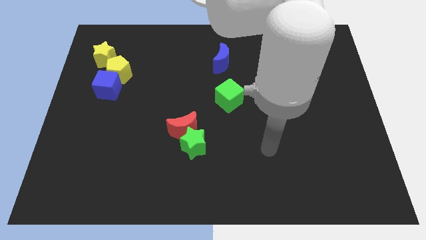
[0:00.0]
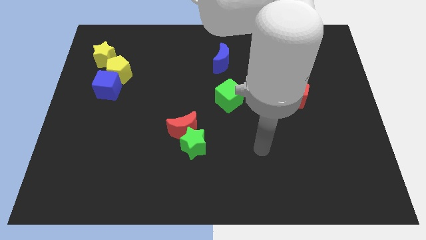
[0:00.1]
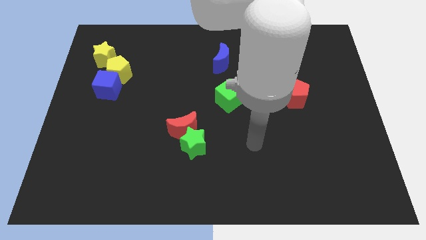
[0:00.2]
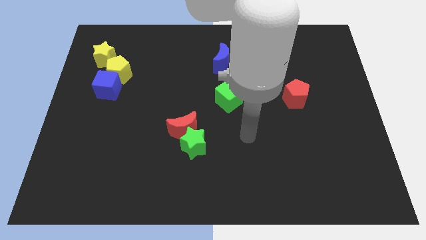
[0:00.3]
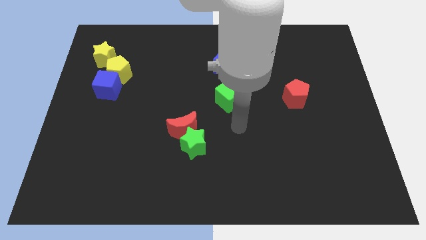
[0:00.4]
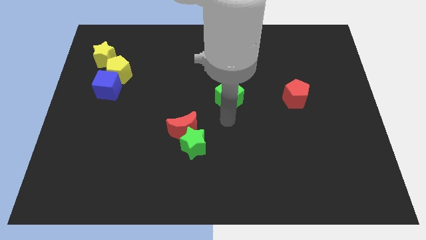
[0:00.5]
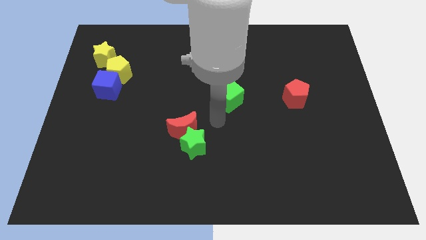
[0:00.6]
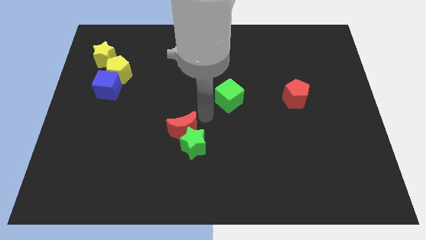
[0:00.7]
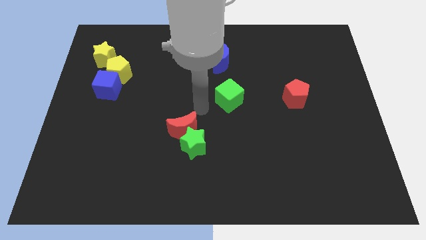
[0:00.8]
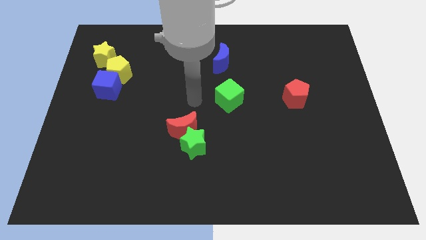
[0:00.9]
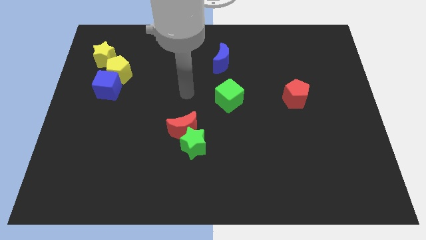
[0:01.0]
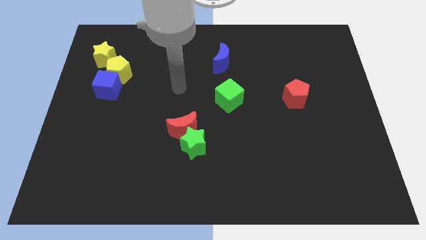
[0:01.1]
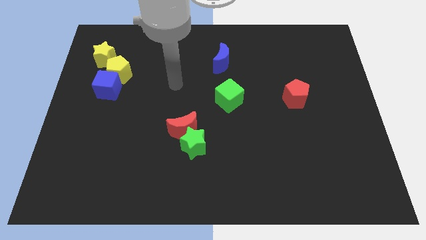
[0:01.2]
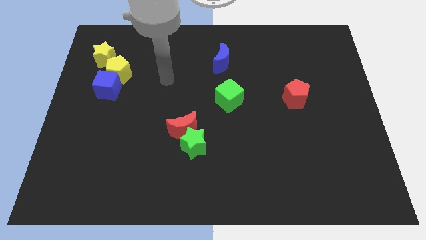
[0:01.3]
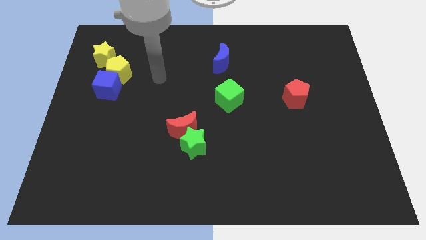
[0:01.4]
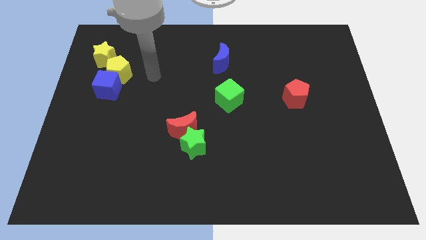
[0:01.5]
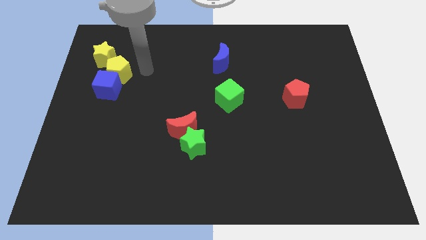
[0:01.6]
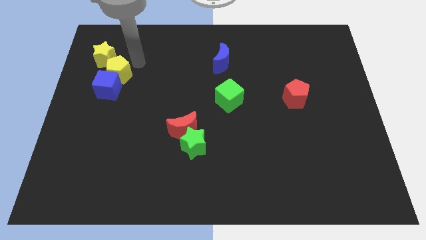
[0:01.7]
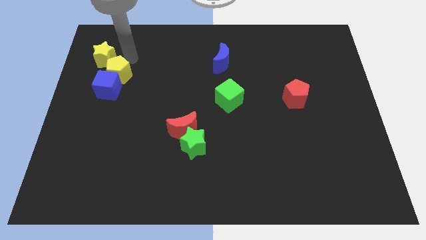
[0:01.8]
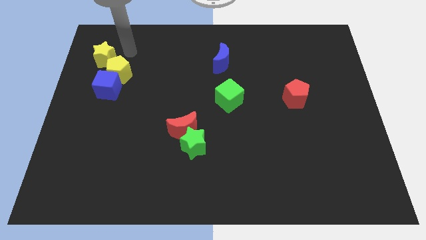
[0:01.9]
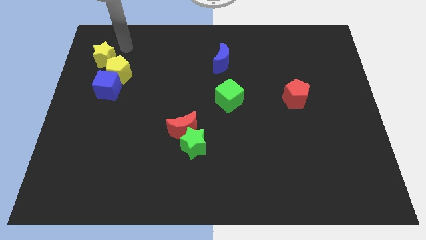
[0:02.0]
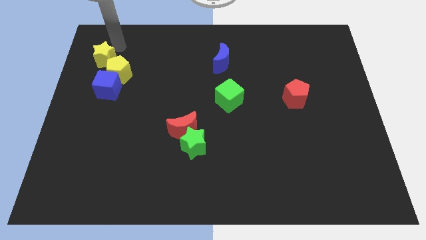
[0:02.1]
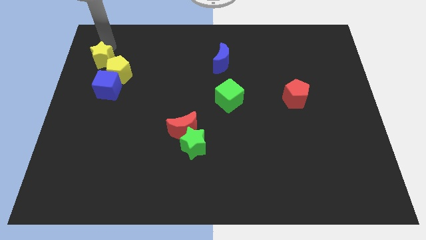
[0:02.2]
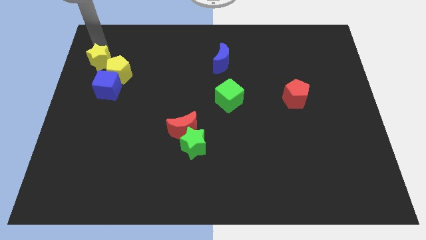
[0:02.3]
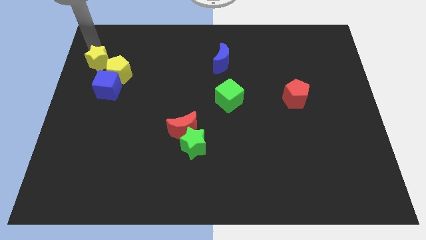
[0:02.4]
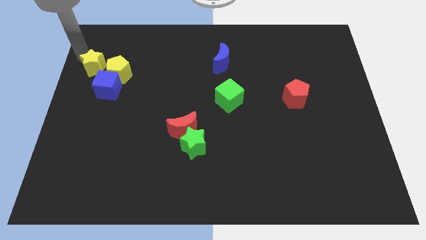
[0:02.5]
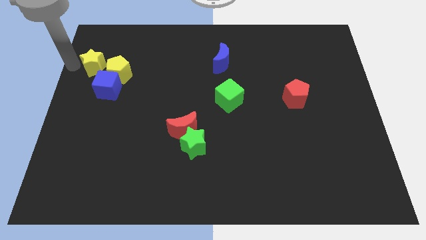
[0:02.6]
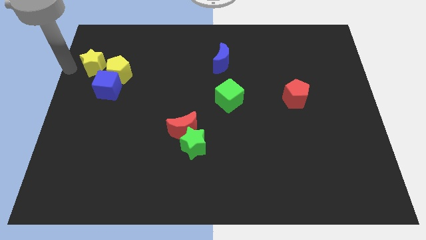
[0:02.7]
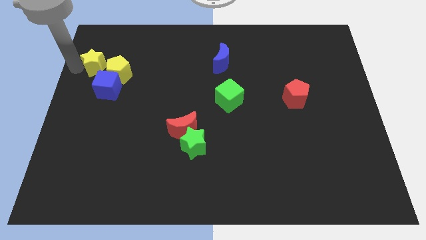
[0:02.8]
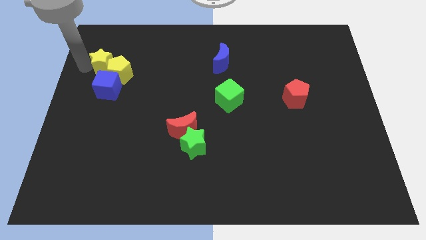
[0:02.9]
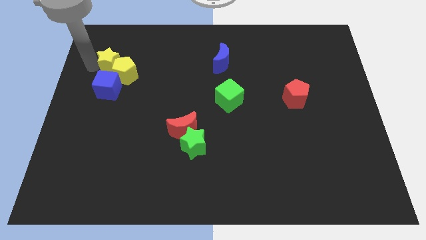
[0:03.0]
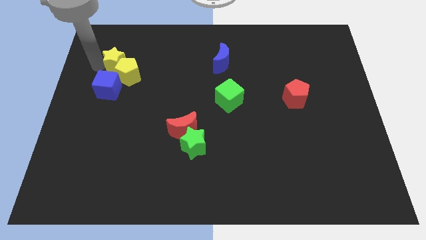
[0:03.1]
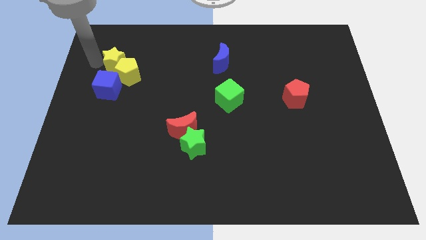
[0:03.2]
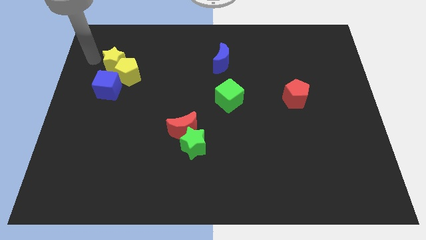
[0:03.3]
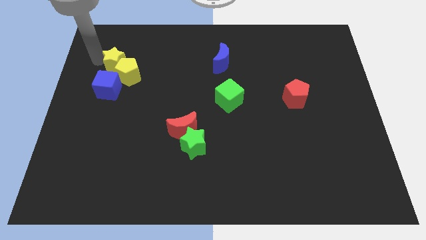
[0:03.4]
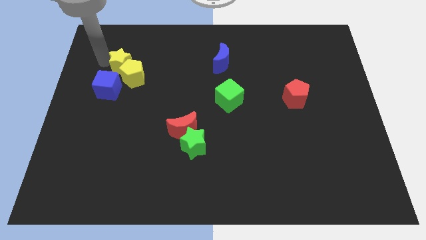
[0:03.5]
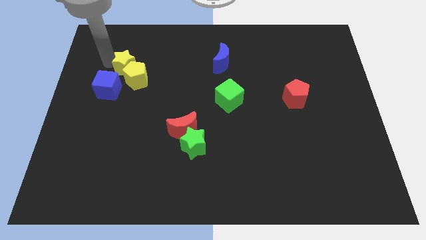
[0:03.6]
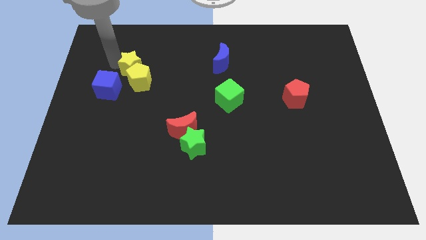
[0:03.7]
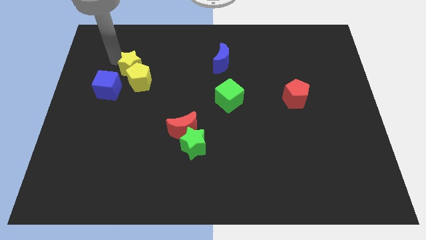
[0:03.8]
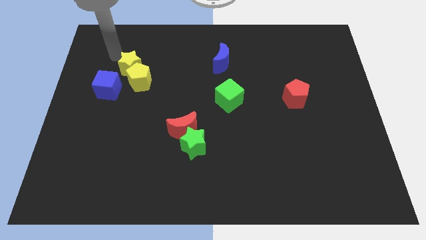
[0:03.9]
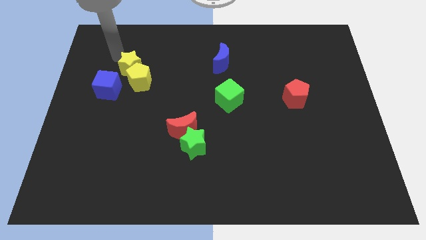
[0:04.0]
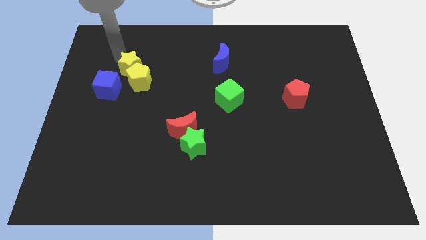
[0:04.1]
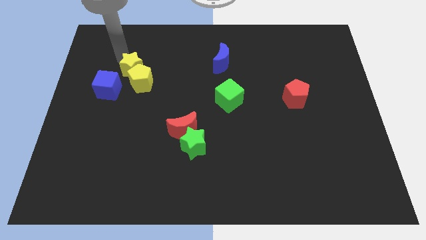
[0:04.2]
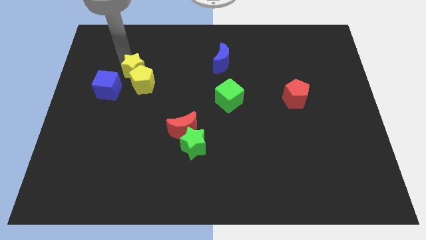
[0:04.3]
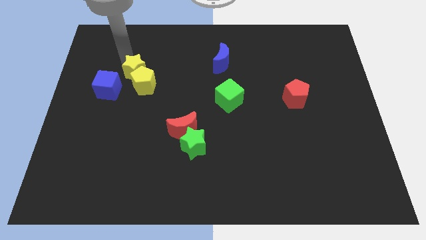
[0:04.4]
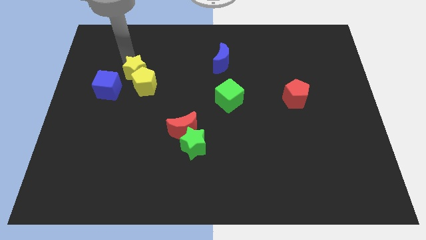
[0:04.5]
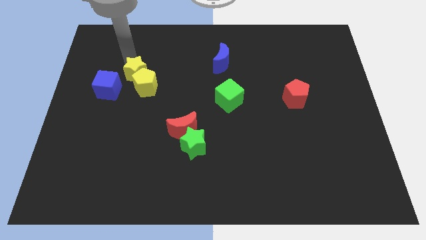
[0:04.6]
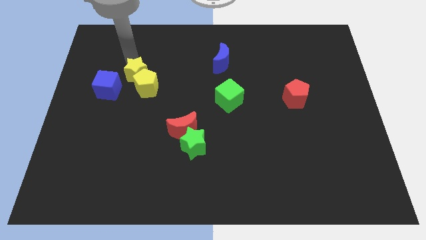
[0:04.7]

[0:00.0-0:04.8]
put the yellow star just right of the blue cube

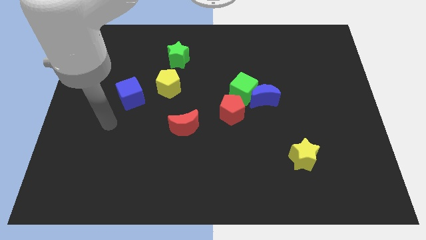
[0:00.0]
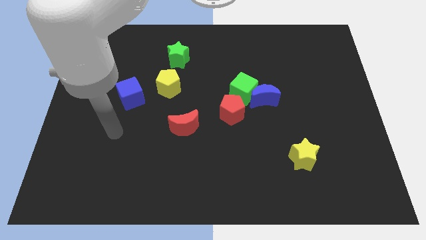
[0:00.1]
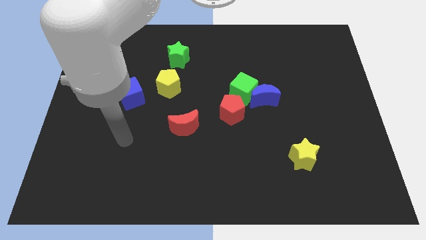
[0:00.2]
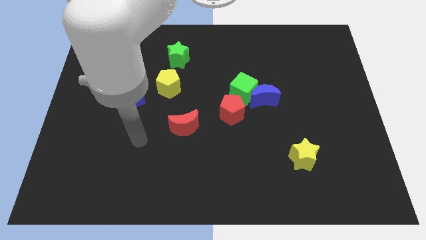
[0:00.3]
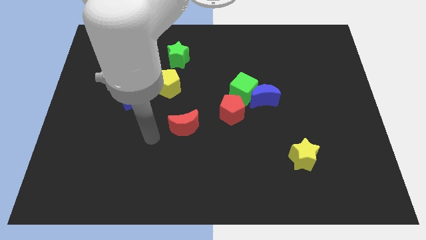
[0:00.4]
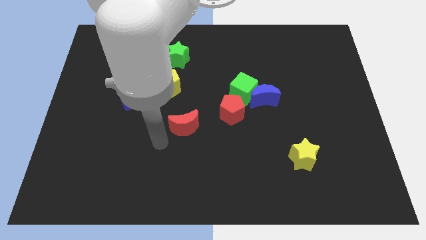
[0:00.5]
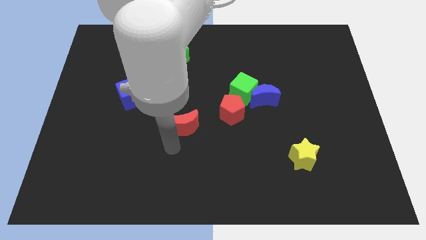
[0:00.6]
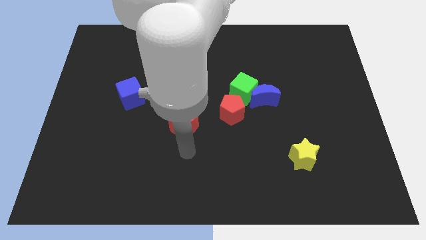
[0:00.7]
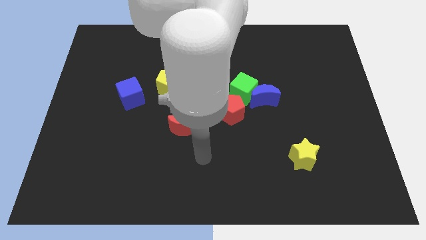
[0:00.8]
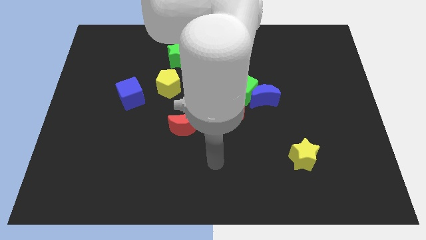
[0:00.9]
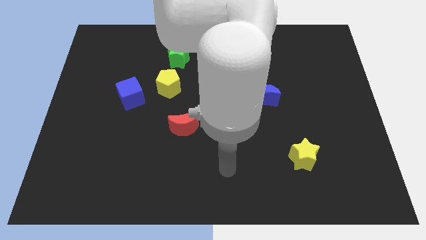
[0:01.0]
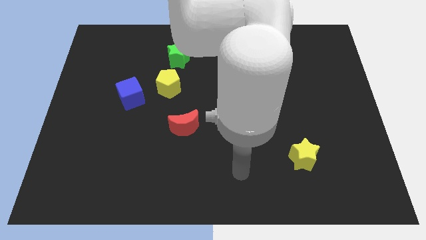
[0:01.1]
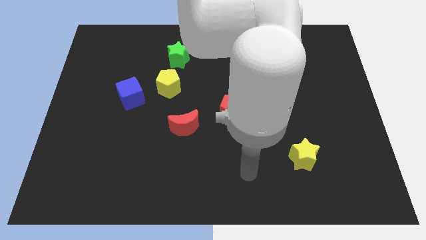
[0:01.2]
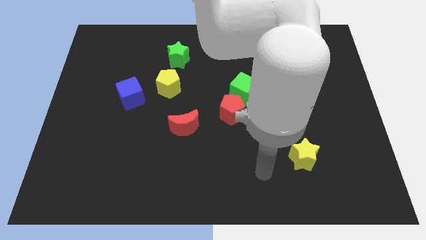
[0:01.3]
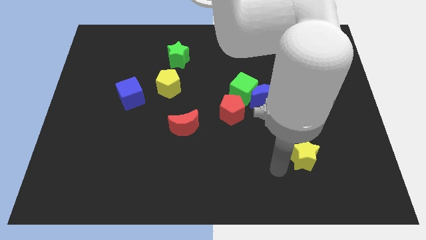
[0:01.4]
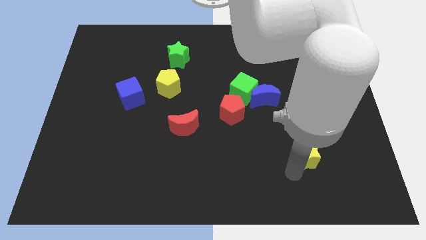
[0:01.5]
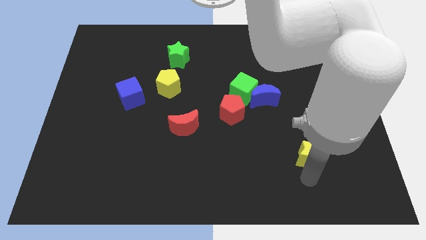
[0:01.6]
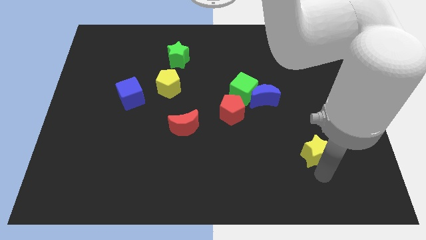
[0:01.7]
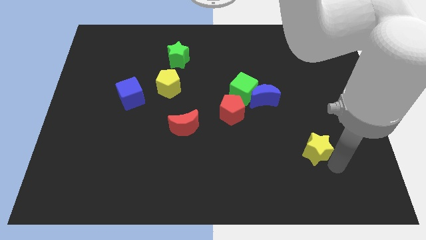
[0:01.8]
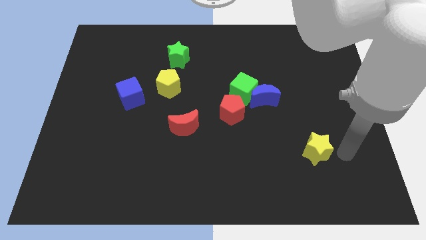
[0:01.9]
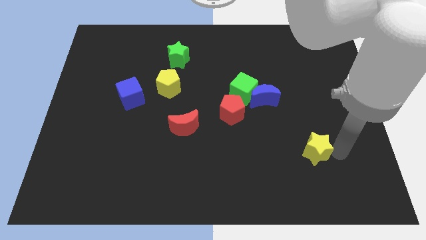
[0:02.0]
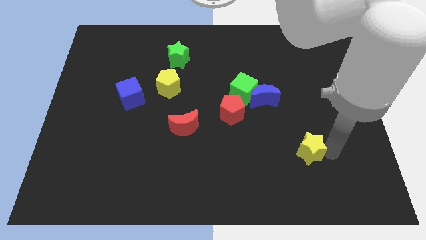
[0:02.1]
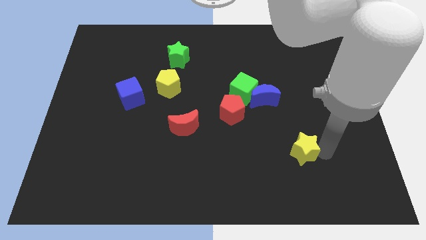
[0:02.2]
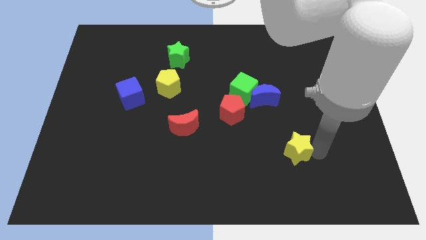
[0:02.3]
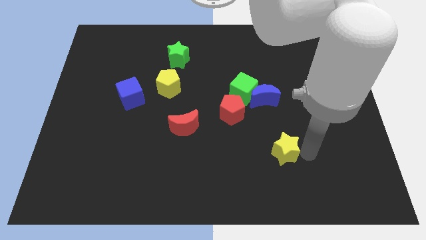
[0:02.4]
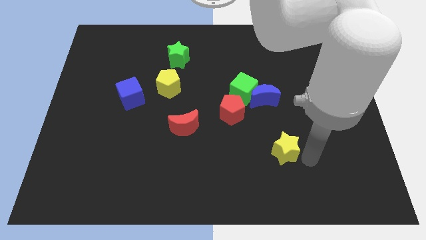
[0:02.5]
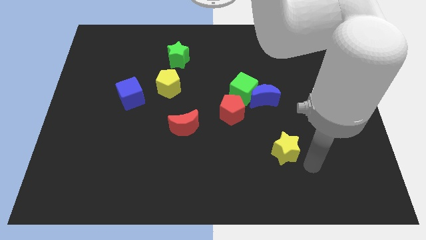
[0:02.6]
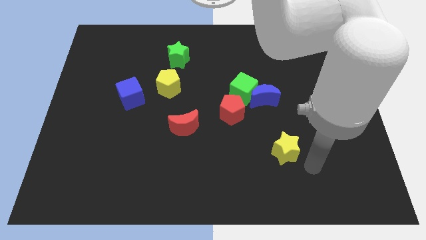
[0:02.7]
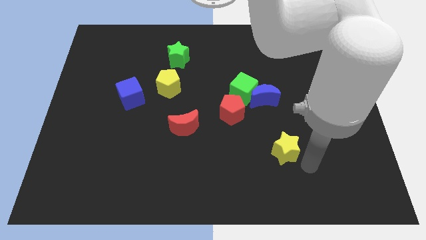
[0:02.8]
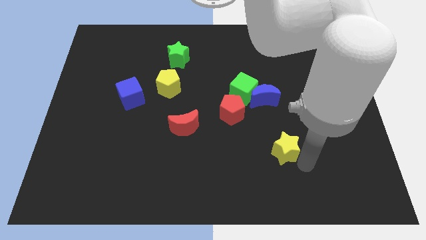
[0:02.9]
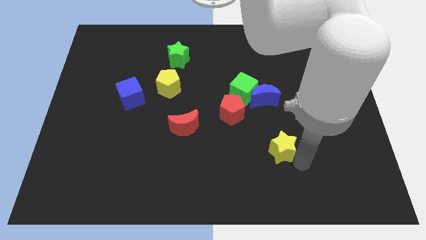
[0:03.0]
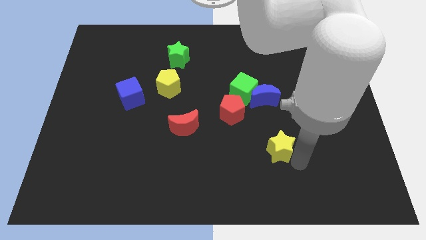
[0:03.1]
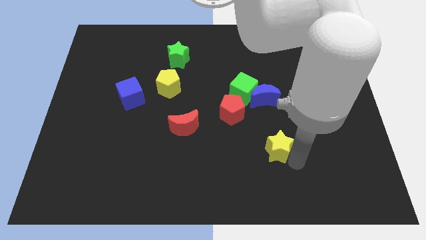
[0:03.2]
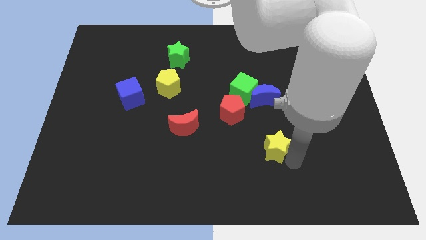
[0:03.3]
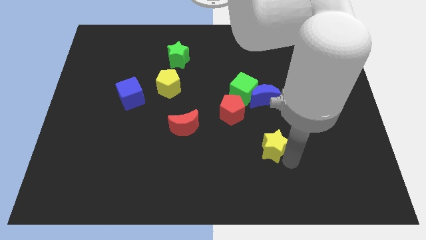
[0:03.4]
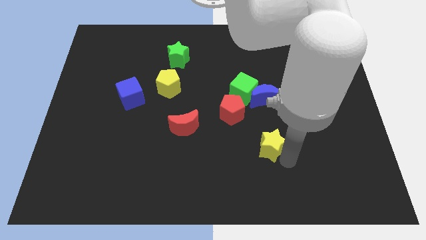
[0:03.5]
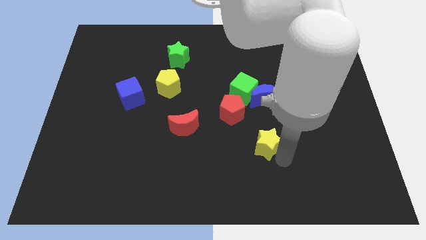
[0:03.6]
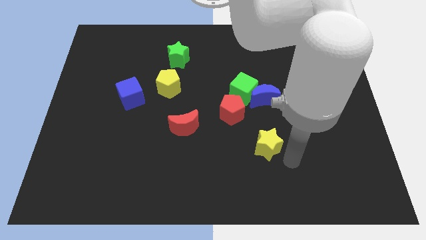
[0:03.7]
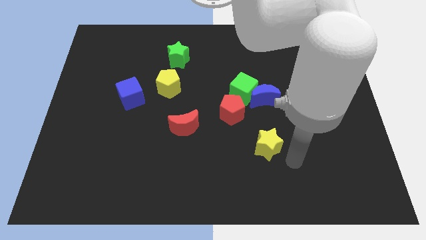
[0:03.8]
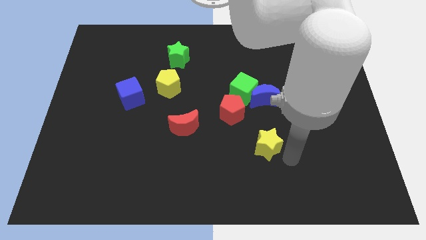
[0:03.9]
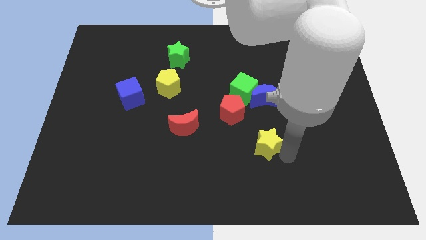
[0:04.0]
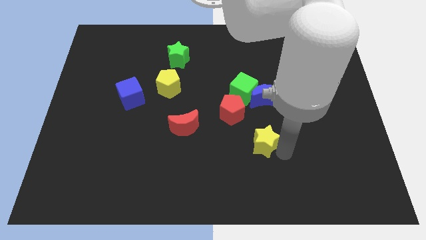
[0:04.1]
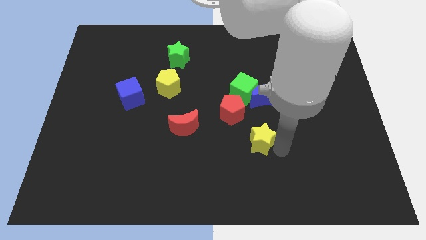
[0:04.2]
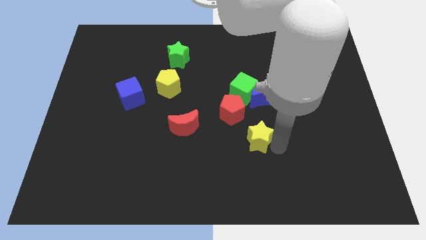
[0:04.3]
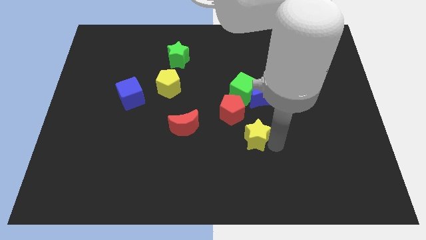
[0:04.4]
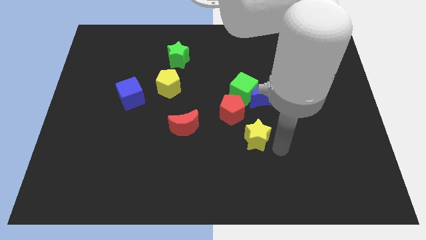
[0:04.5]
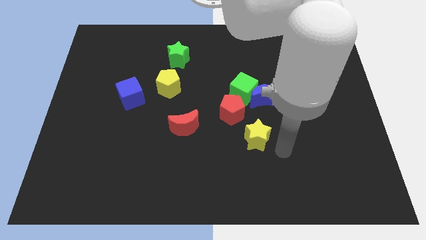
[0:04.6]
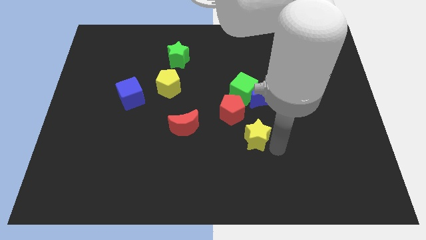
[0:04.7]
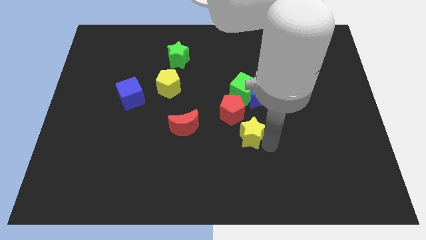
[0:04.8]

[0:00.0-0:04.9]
move the yellow star to the right side of the red moon
